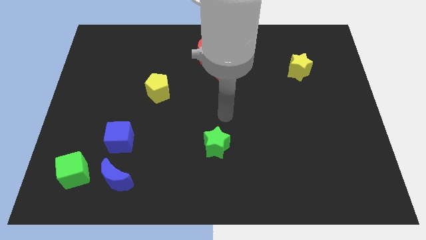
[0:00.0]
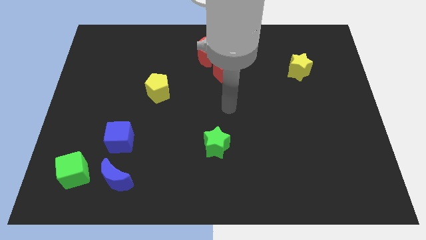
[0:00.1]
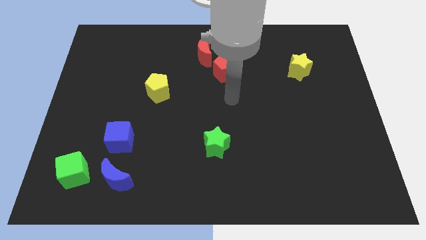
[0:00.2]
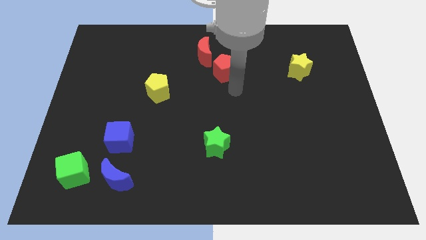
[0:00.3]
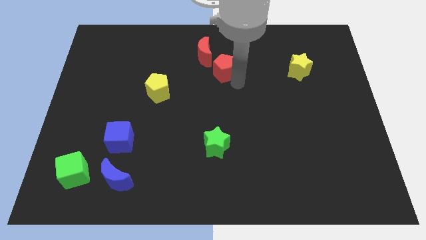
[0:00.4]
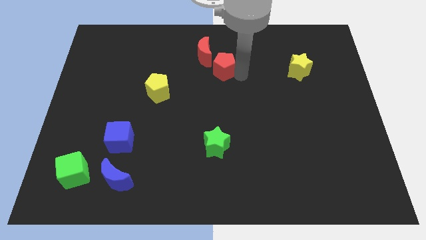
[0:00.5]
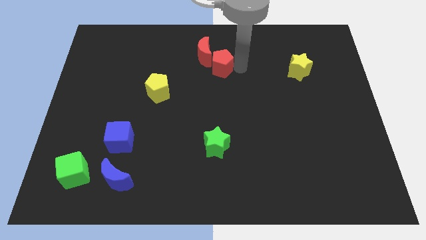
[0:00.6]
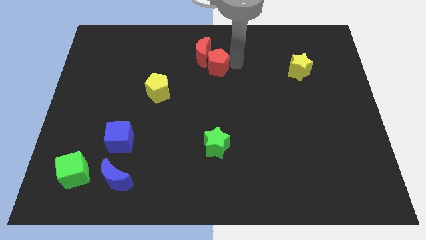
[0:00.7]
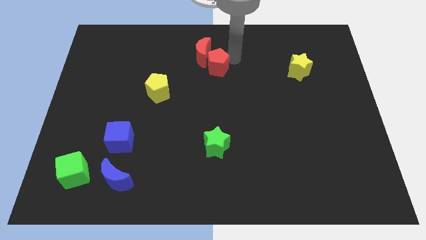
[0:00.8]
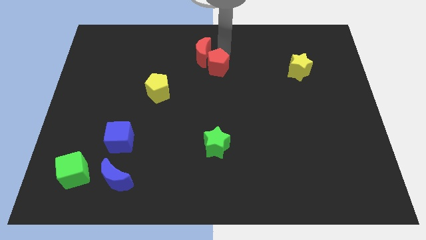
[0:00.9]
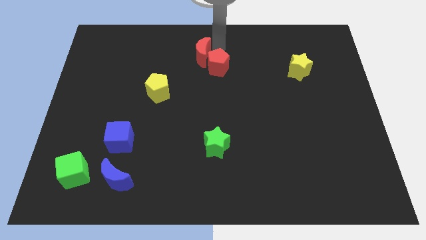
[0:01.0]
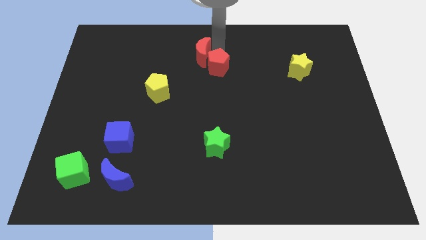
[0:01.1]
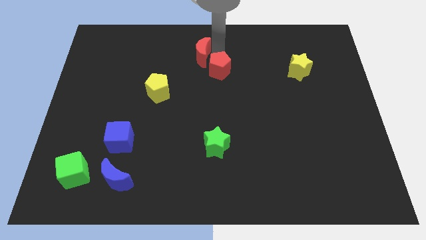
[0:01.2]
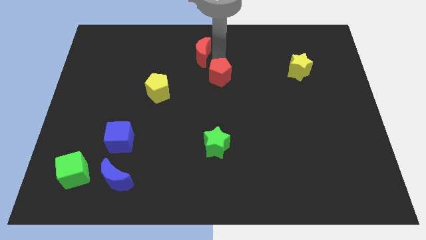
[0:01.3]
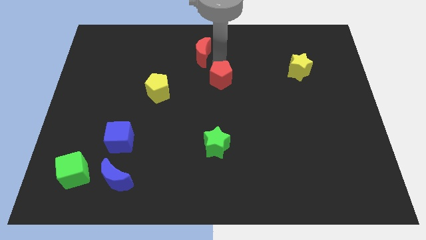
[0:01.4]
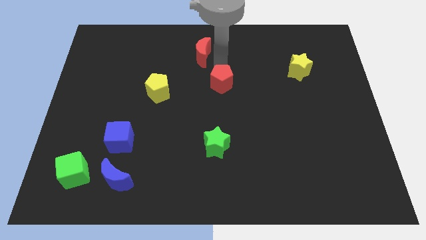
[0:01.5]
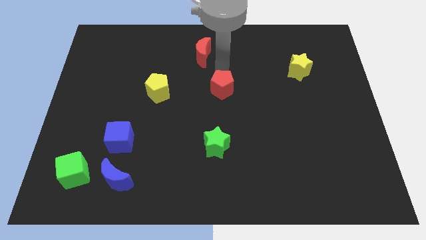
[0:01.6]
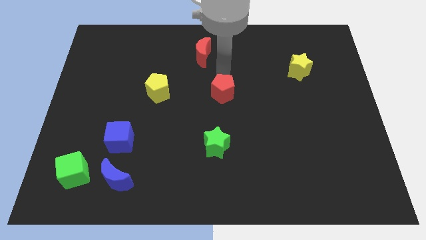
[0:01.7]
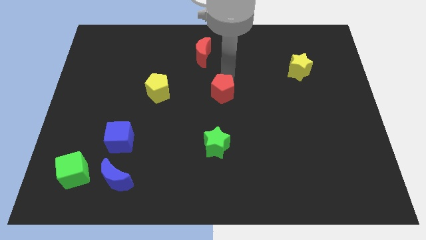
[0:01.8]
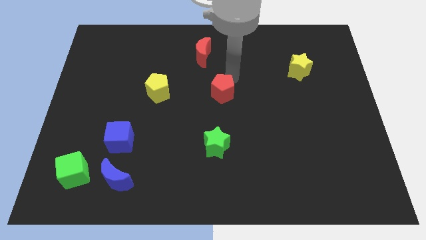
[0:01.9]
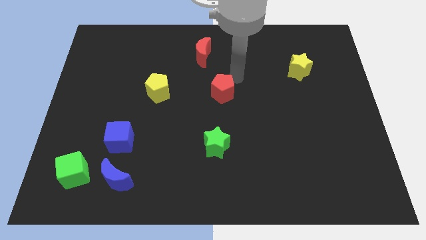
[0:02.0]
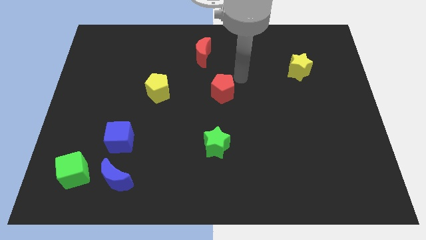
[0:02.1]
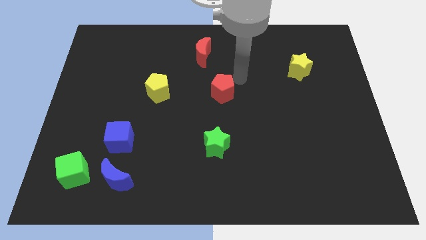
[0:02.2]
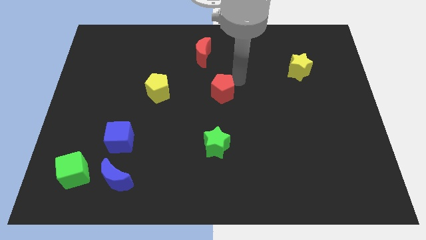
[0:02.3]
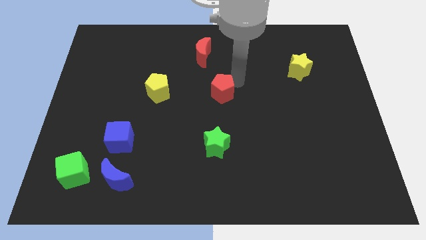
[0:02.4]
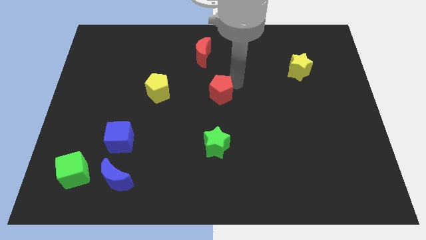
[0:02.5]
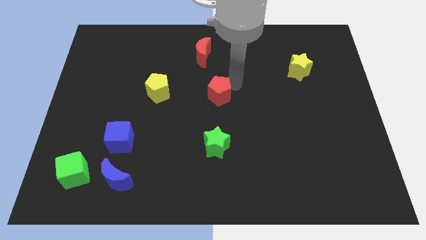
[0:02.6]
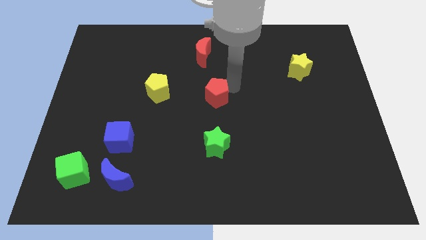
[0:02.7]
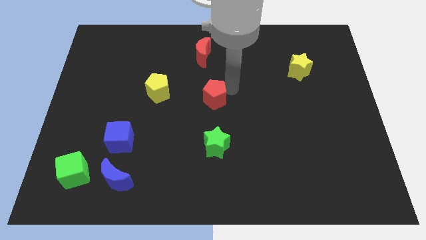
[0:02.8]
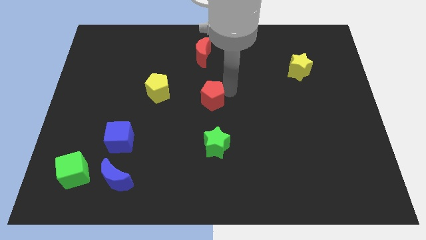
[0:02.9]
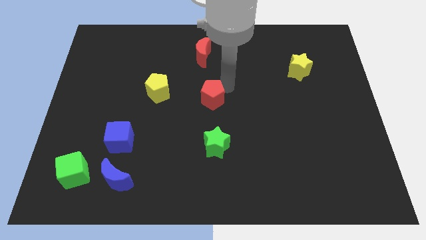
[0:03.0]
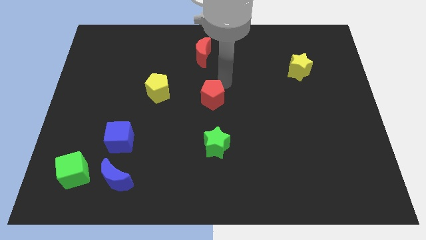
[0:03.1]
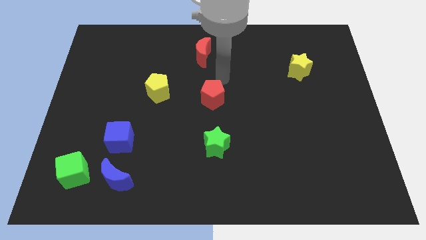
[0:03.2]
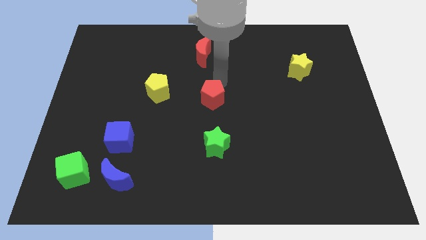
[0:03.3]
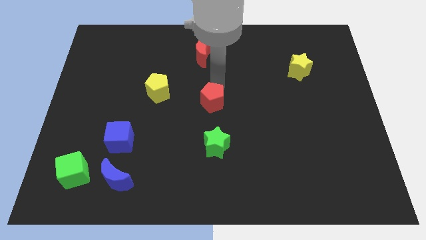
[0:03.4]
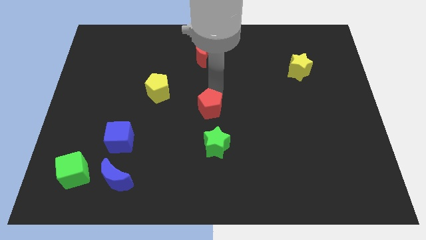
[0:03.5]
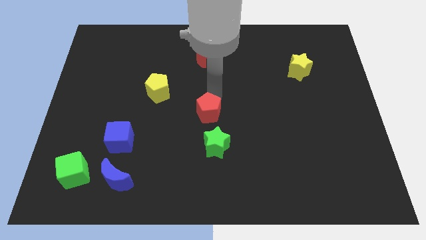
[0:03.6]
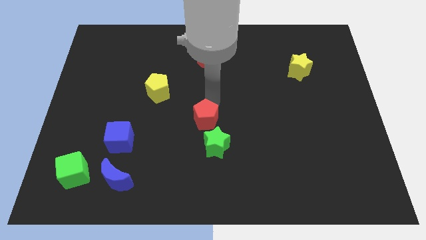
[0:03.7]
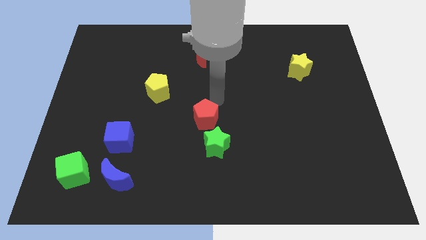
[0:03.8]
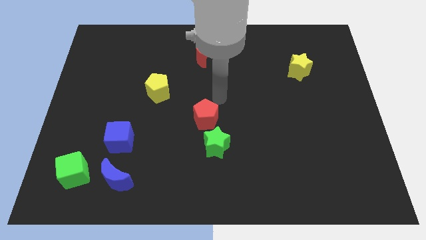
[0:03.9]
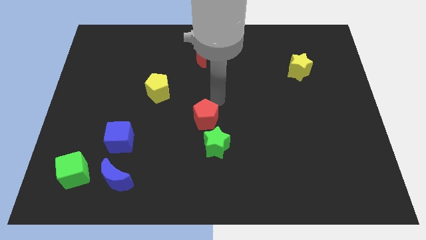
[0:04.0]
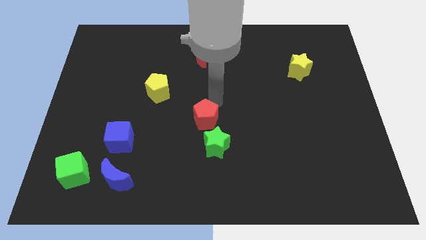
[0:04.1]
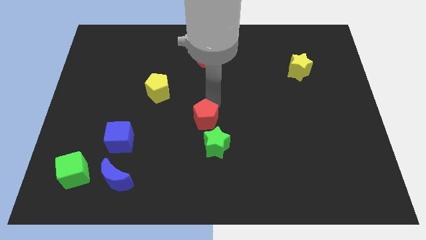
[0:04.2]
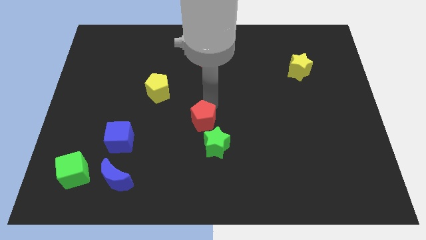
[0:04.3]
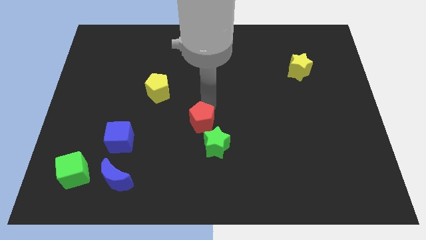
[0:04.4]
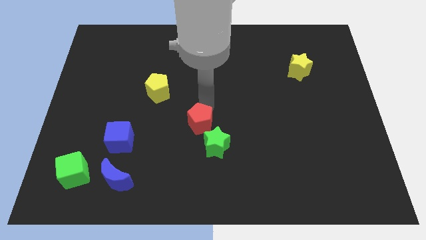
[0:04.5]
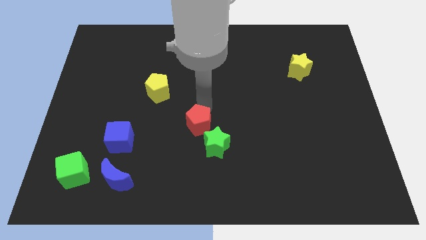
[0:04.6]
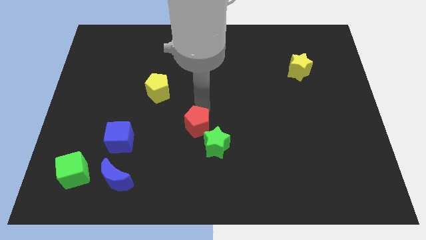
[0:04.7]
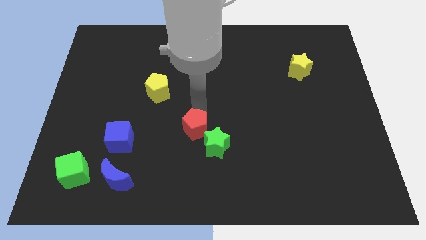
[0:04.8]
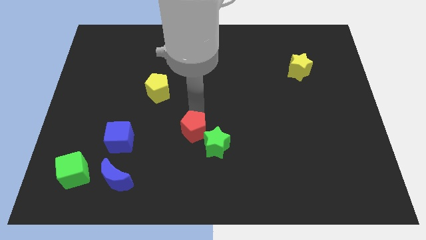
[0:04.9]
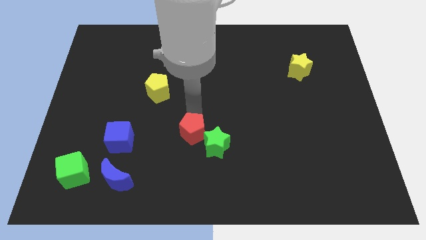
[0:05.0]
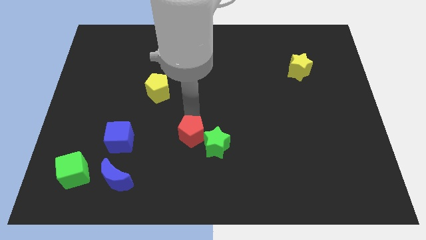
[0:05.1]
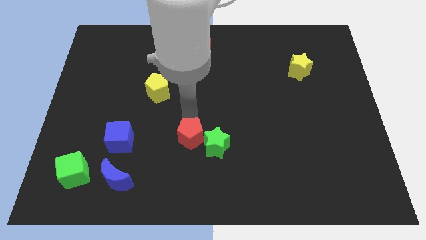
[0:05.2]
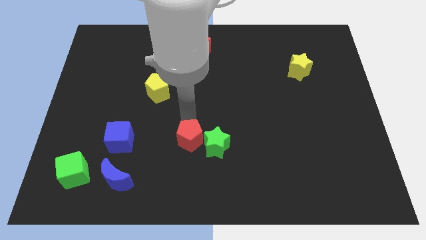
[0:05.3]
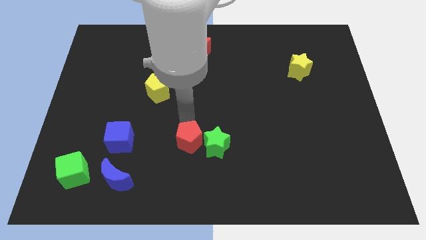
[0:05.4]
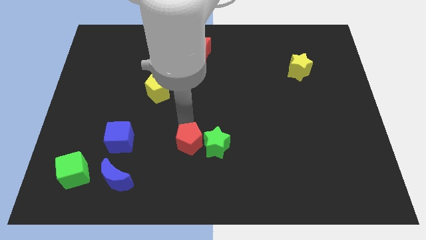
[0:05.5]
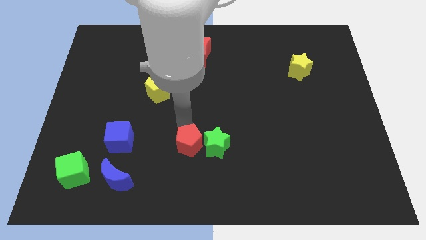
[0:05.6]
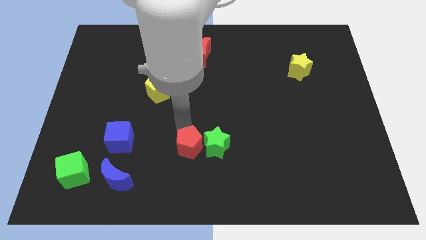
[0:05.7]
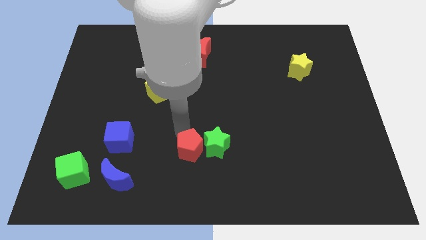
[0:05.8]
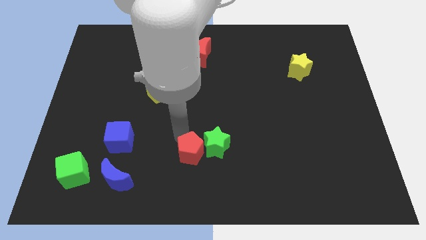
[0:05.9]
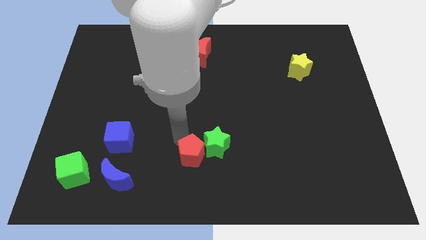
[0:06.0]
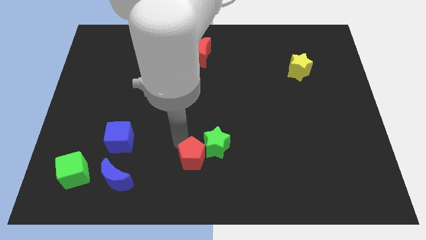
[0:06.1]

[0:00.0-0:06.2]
put the red pentagon to the bottom

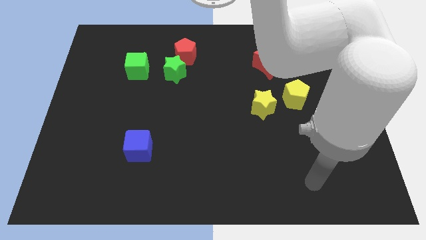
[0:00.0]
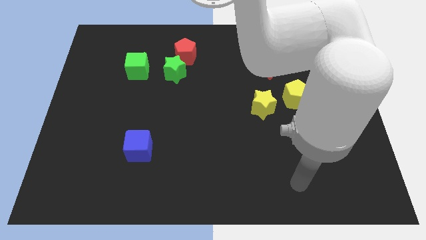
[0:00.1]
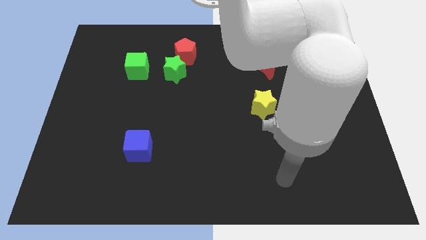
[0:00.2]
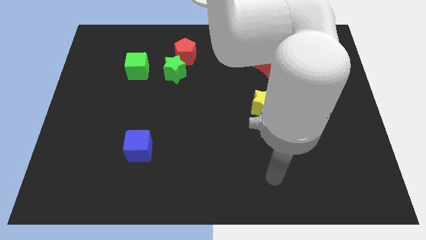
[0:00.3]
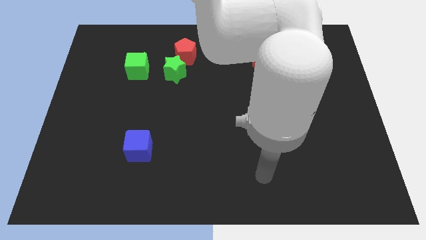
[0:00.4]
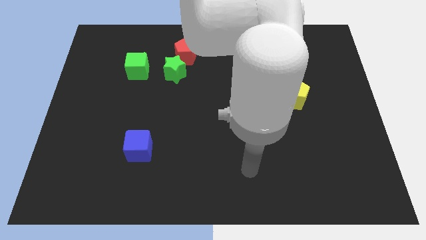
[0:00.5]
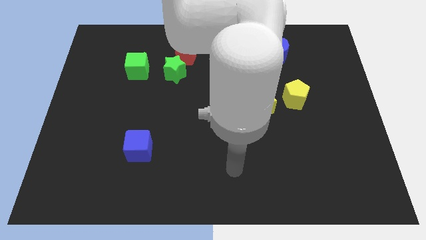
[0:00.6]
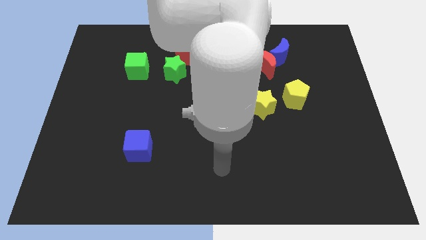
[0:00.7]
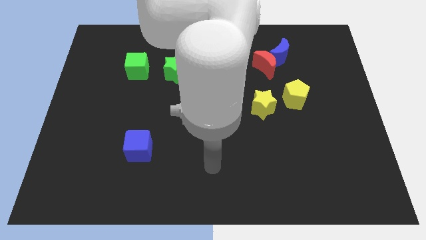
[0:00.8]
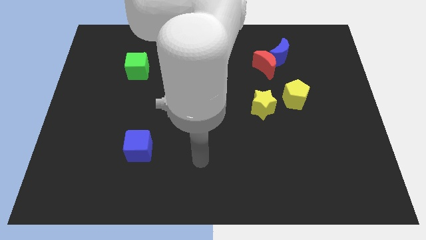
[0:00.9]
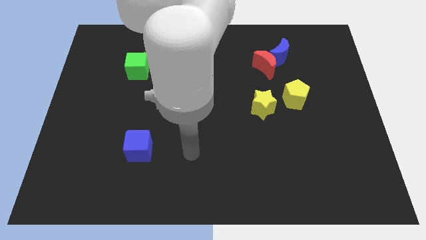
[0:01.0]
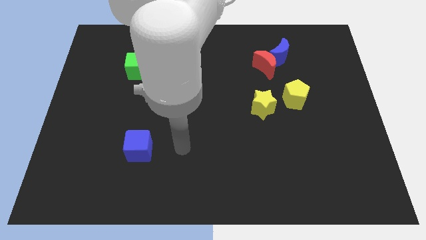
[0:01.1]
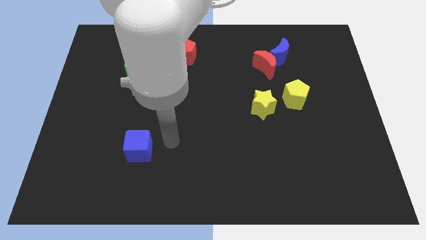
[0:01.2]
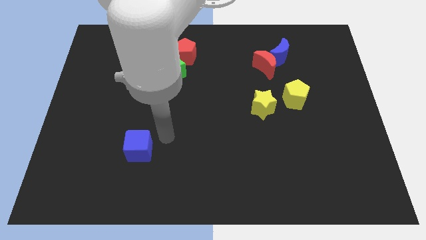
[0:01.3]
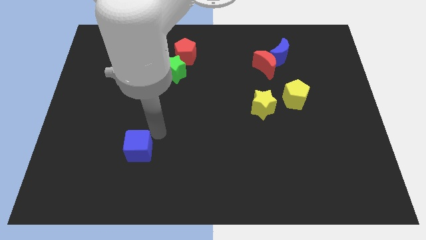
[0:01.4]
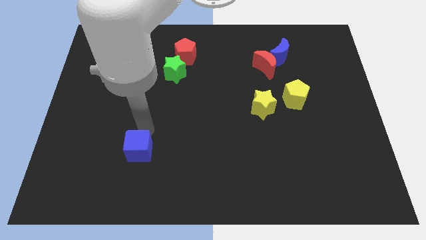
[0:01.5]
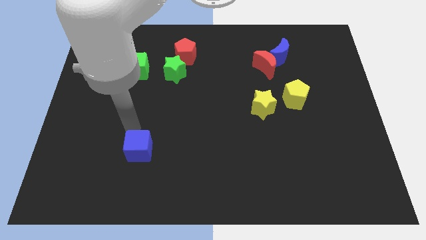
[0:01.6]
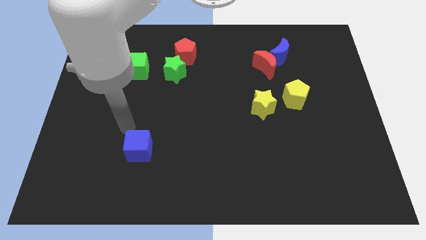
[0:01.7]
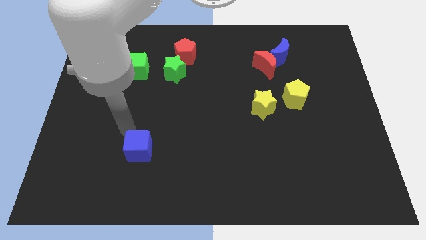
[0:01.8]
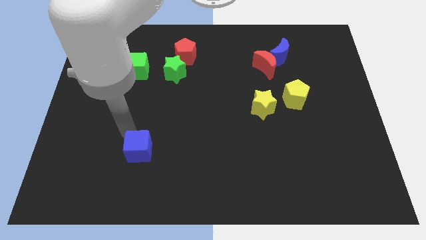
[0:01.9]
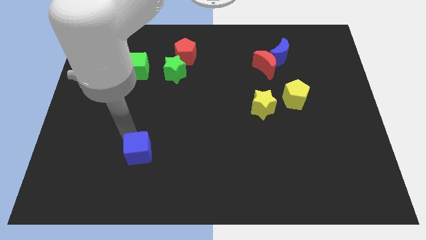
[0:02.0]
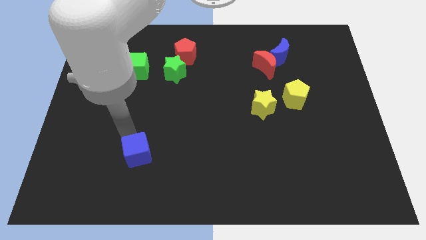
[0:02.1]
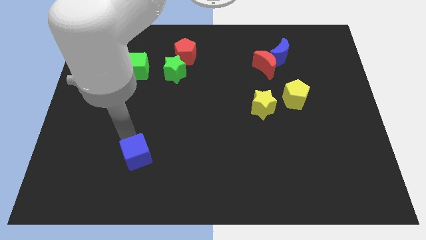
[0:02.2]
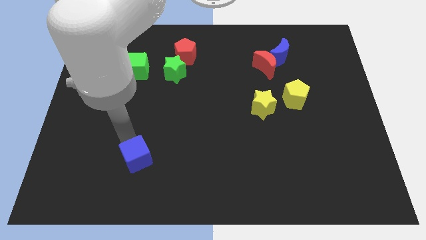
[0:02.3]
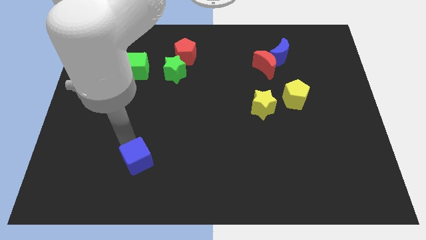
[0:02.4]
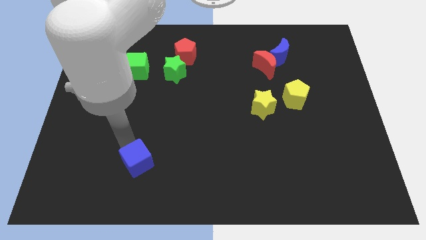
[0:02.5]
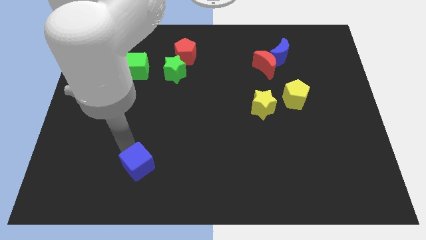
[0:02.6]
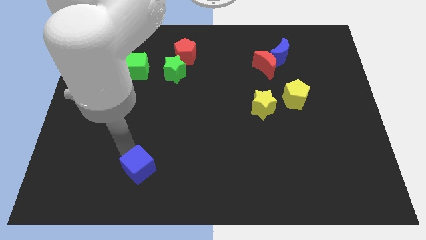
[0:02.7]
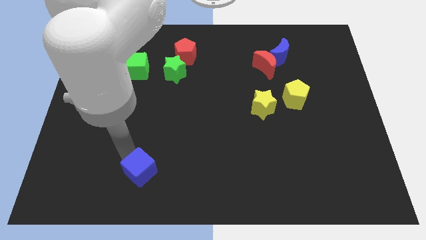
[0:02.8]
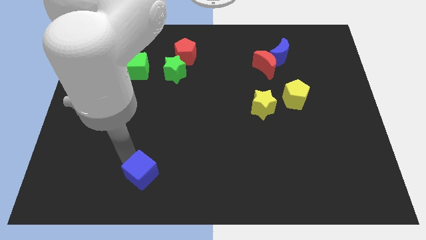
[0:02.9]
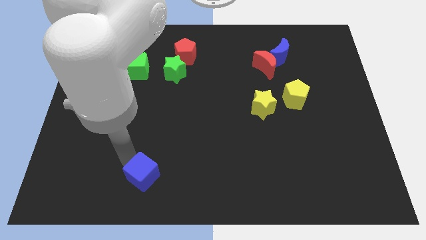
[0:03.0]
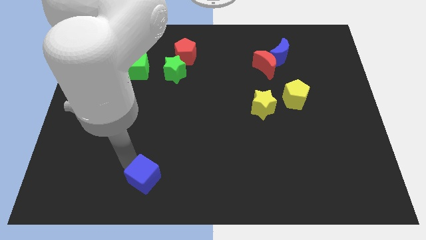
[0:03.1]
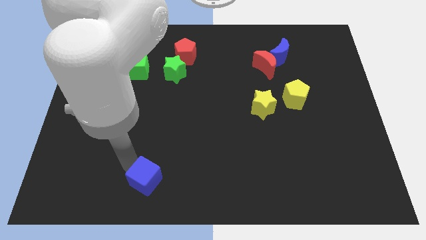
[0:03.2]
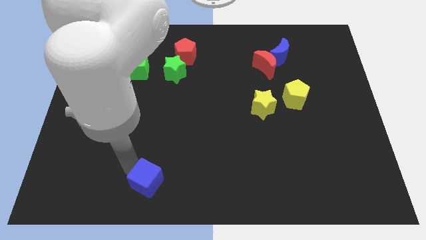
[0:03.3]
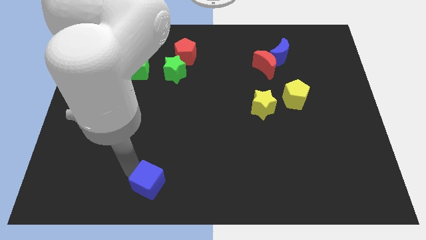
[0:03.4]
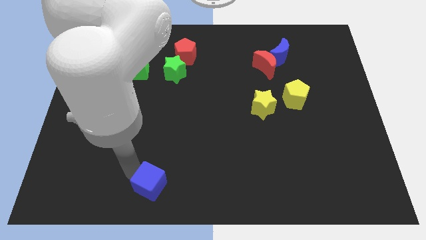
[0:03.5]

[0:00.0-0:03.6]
push the blue cube to the bottom side
